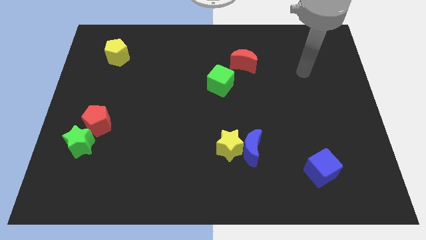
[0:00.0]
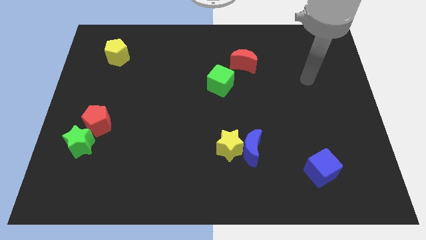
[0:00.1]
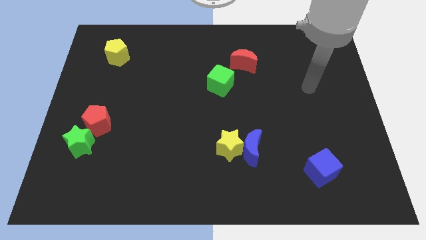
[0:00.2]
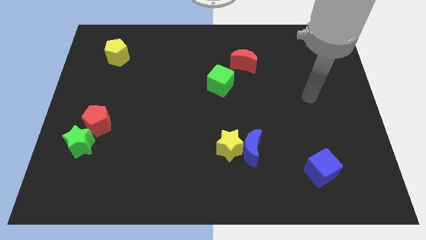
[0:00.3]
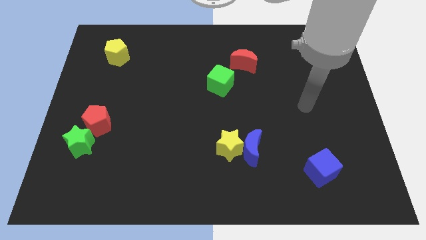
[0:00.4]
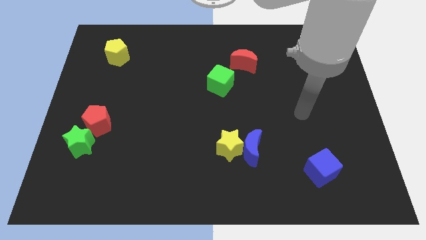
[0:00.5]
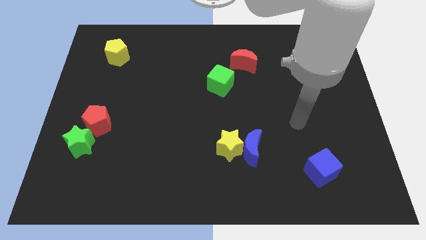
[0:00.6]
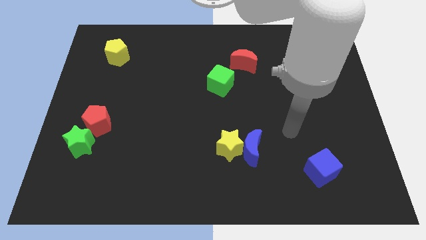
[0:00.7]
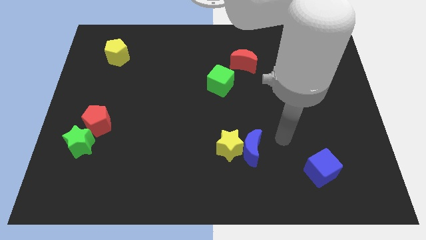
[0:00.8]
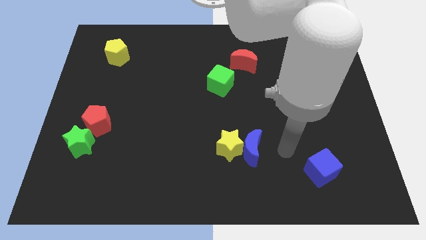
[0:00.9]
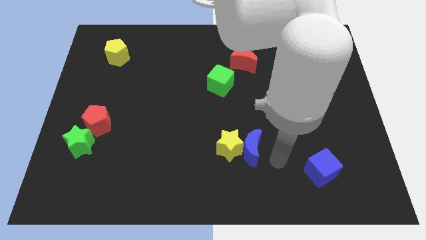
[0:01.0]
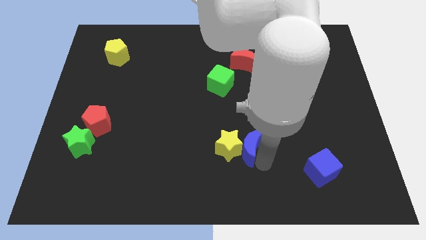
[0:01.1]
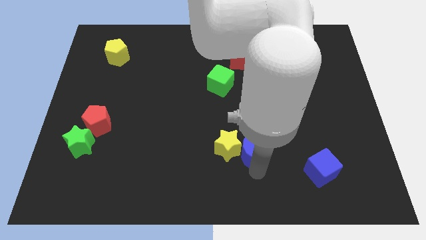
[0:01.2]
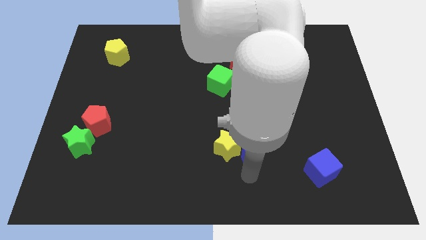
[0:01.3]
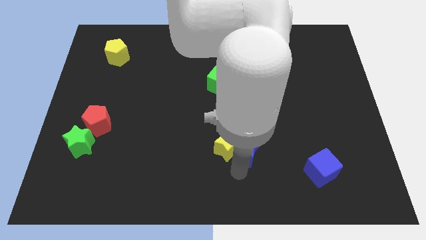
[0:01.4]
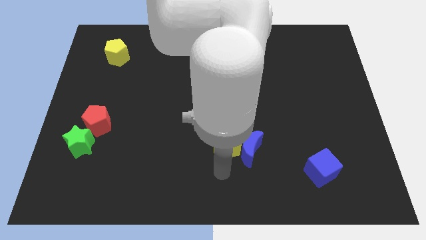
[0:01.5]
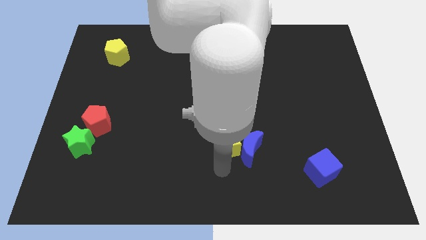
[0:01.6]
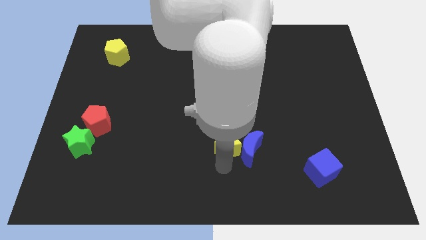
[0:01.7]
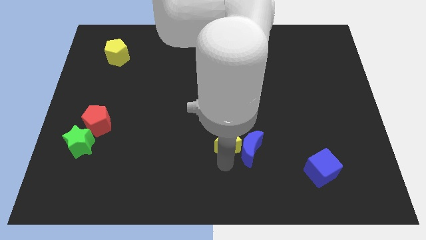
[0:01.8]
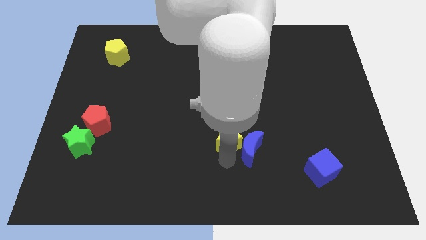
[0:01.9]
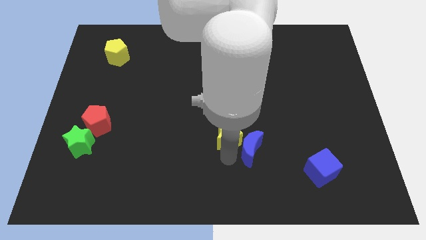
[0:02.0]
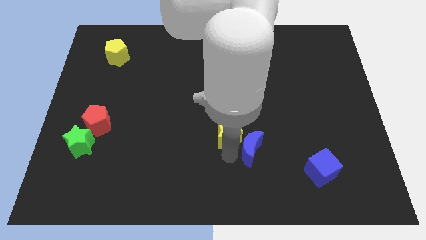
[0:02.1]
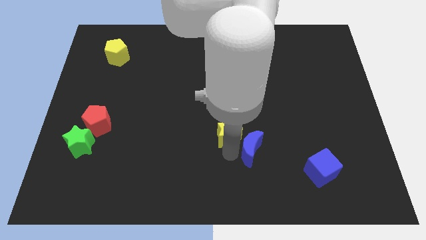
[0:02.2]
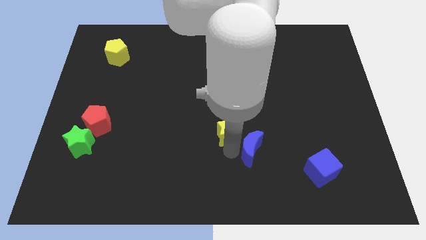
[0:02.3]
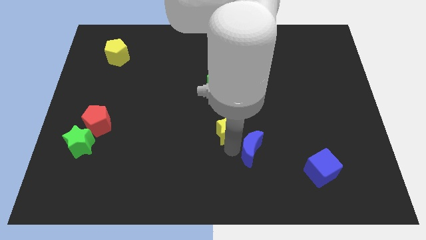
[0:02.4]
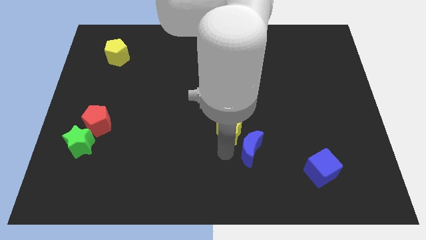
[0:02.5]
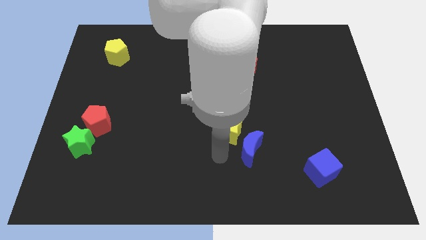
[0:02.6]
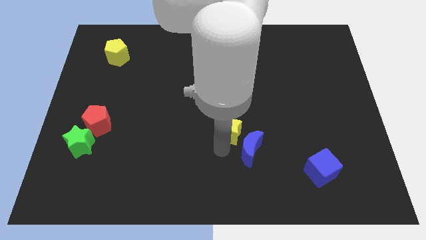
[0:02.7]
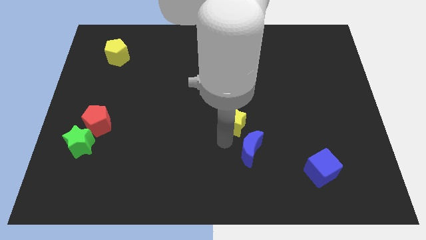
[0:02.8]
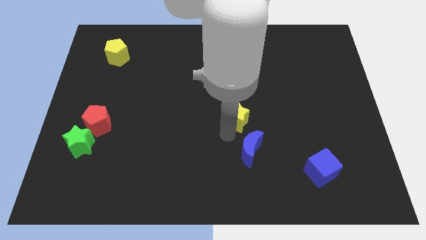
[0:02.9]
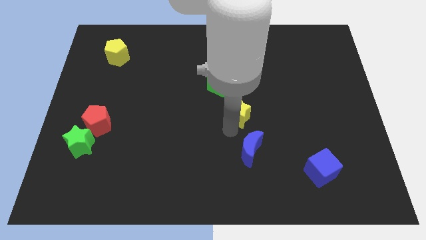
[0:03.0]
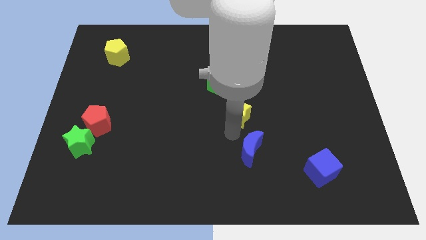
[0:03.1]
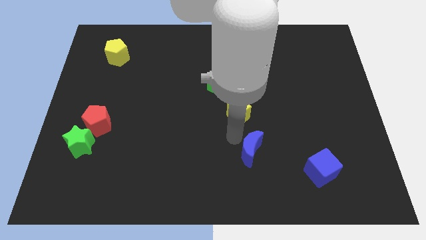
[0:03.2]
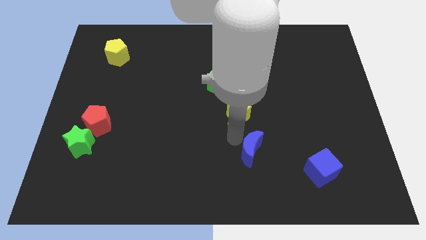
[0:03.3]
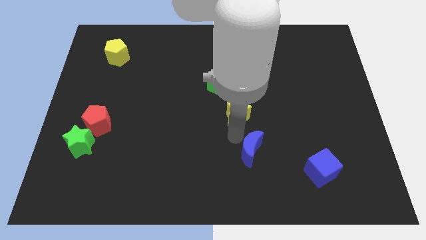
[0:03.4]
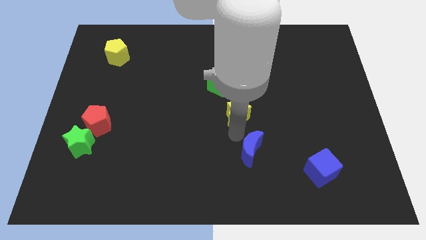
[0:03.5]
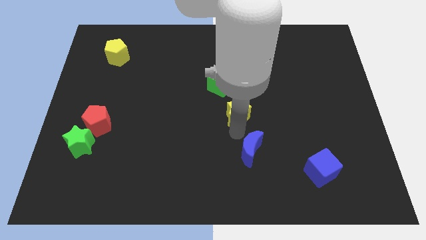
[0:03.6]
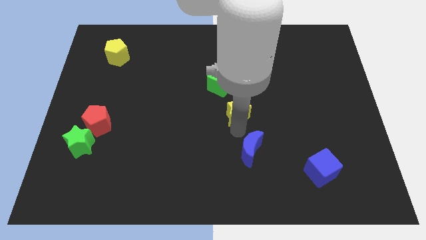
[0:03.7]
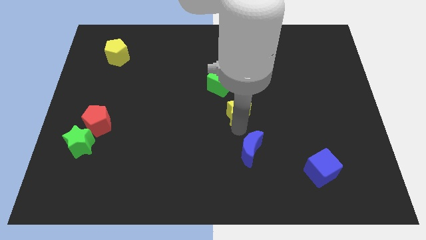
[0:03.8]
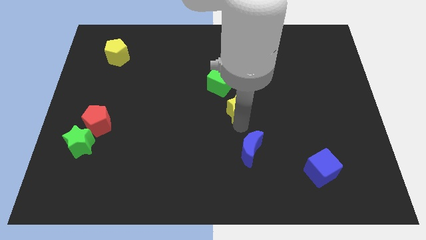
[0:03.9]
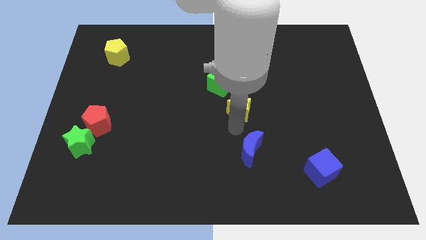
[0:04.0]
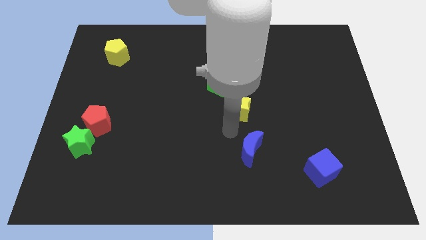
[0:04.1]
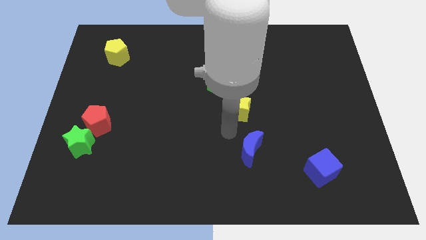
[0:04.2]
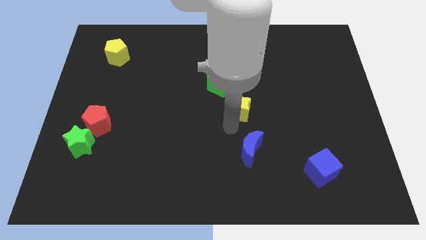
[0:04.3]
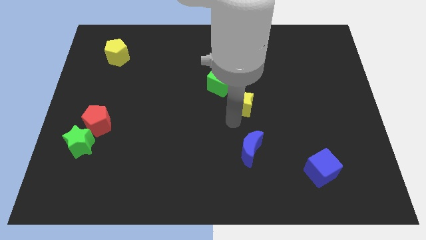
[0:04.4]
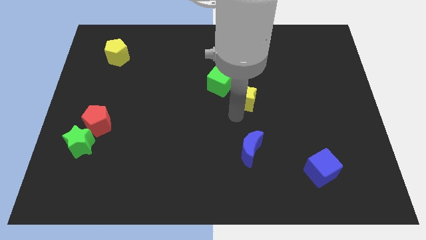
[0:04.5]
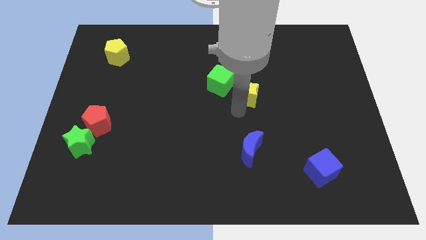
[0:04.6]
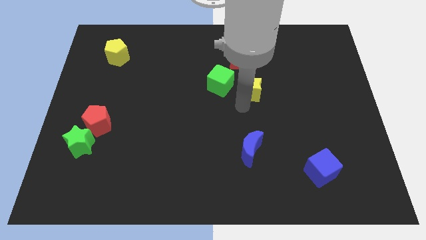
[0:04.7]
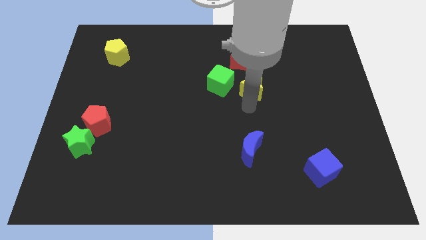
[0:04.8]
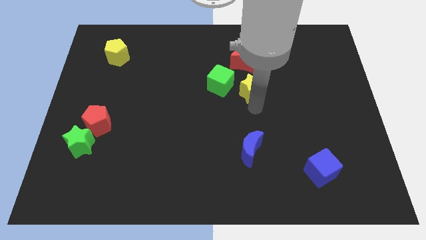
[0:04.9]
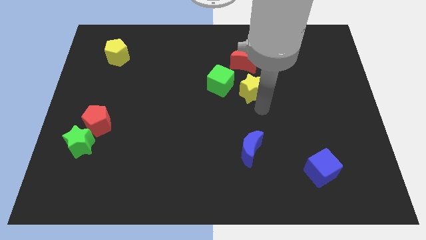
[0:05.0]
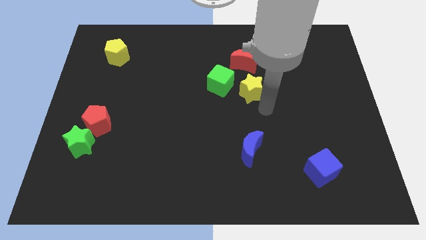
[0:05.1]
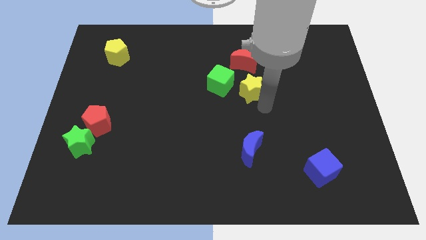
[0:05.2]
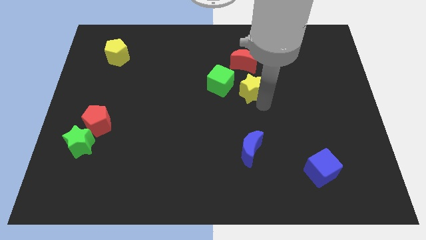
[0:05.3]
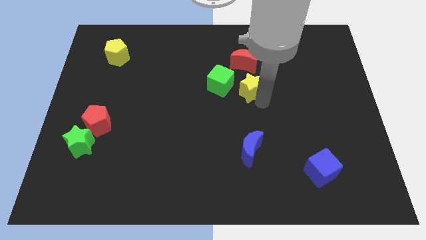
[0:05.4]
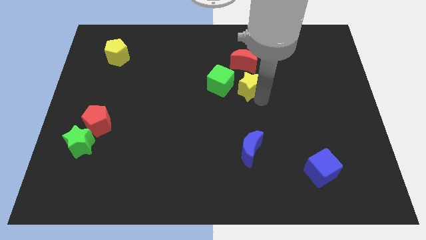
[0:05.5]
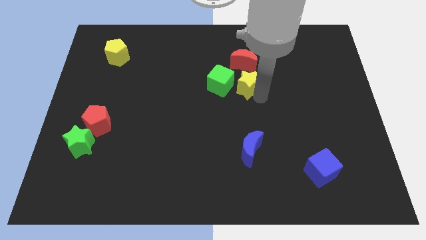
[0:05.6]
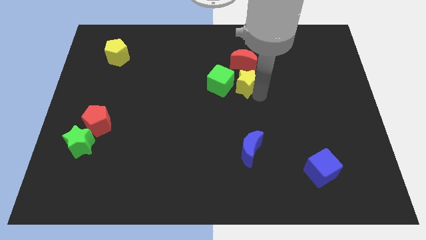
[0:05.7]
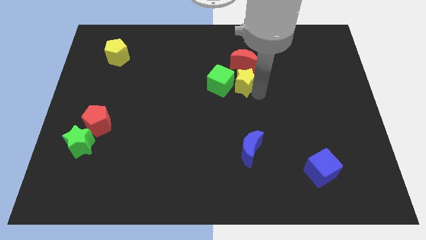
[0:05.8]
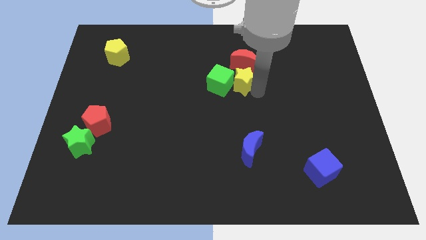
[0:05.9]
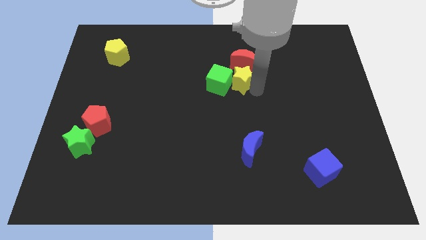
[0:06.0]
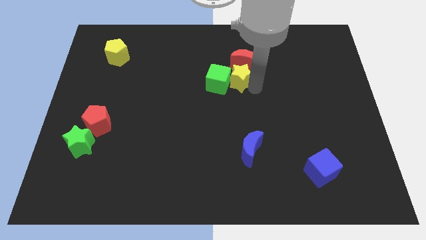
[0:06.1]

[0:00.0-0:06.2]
move the yellow star next to the red moon

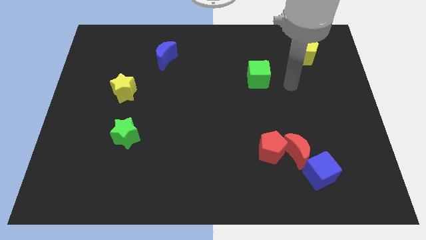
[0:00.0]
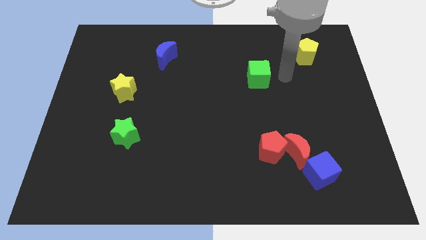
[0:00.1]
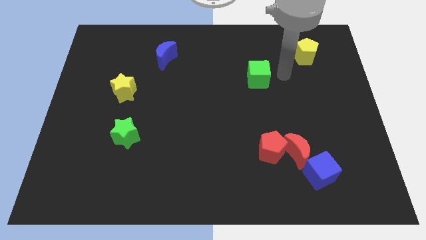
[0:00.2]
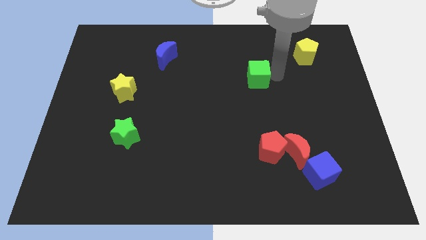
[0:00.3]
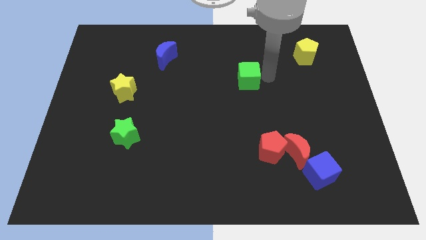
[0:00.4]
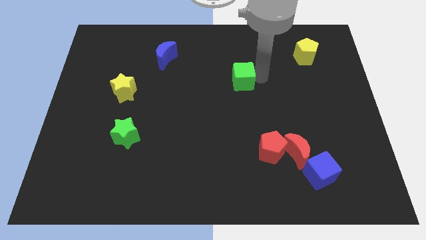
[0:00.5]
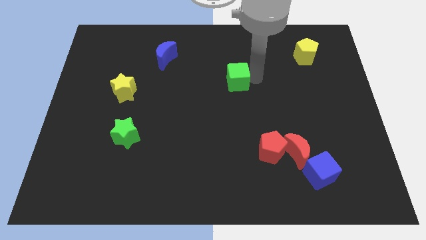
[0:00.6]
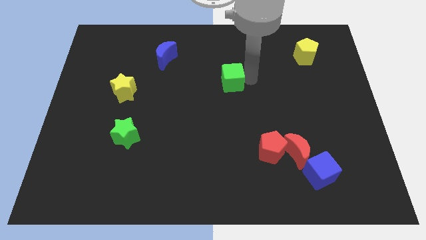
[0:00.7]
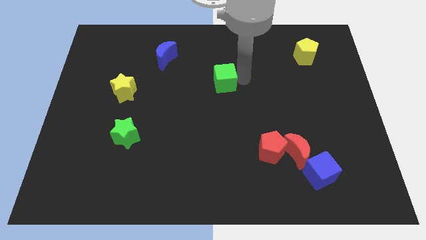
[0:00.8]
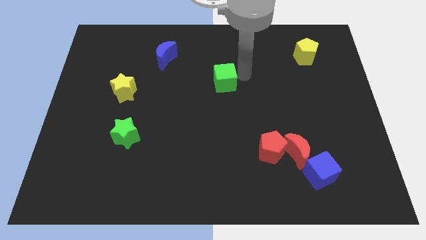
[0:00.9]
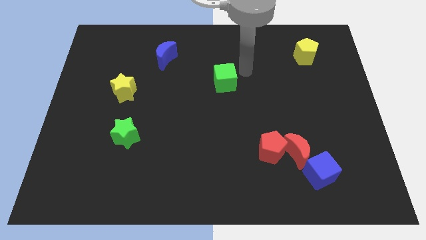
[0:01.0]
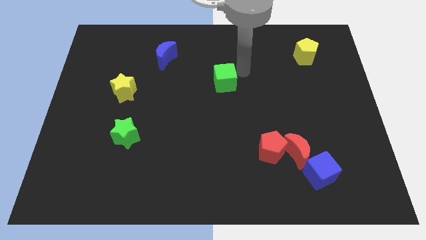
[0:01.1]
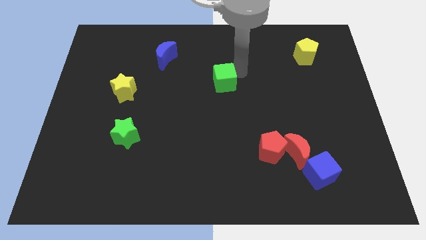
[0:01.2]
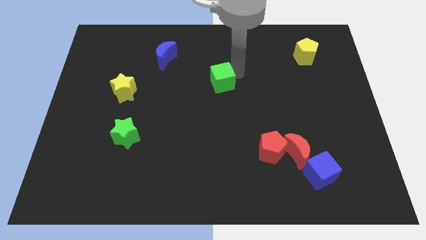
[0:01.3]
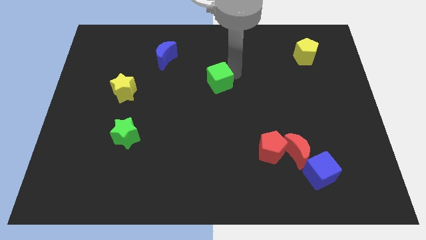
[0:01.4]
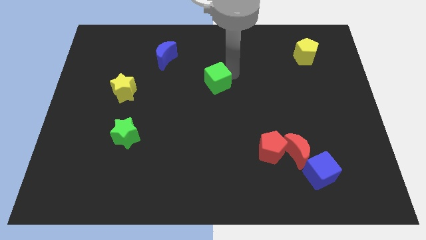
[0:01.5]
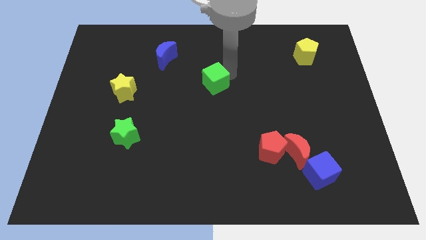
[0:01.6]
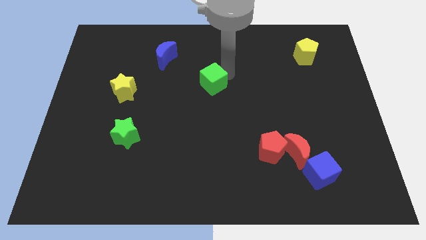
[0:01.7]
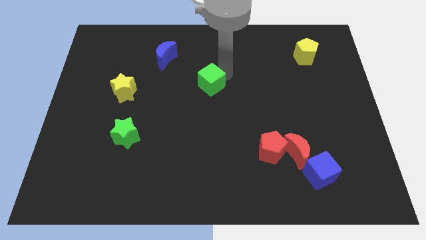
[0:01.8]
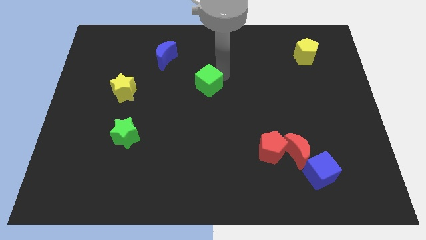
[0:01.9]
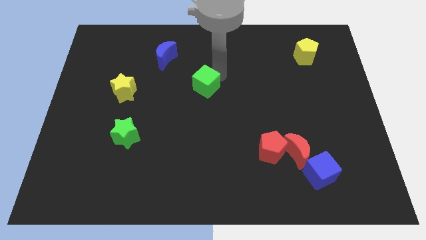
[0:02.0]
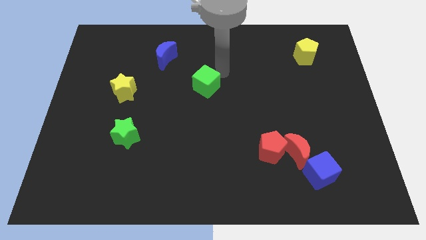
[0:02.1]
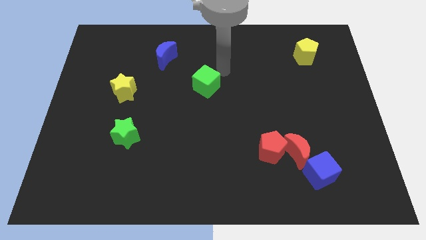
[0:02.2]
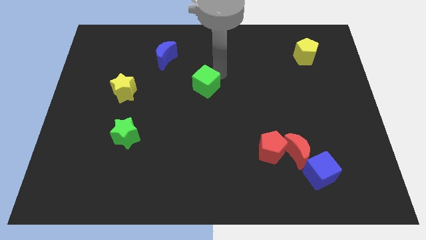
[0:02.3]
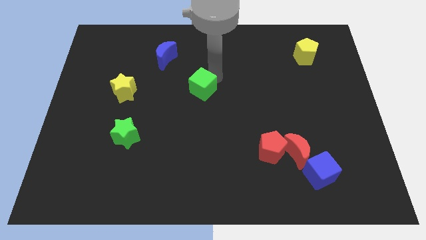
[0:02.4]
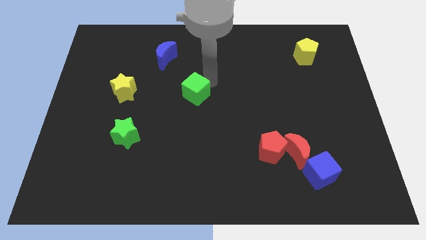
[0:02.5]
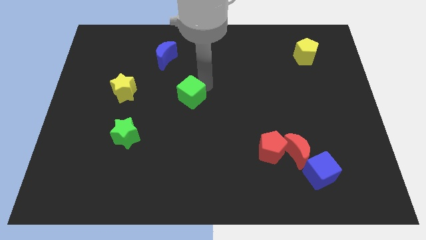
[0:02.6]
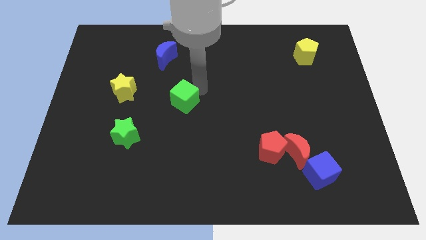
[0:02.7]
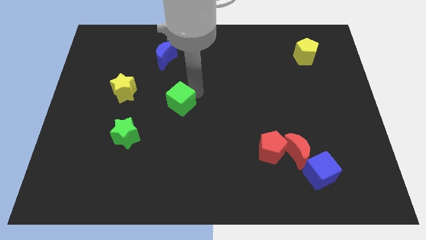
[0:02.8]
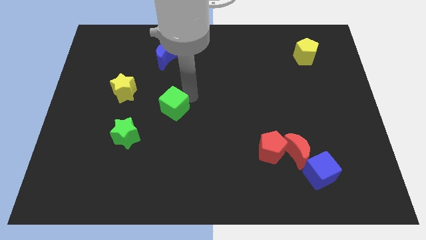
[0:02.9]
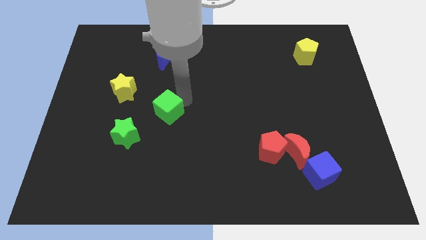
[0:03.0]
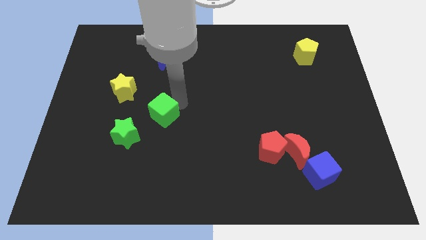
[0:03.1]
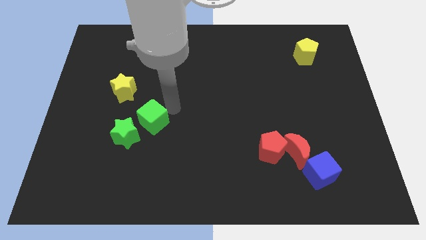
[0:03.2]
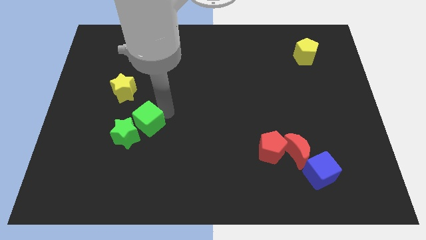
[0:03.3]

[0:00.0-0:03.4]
put the green cube to the green star
